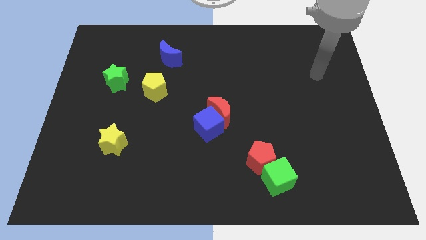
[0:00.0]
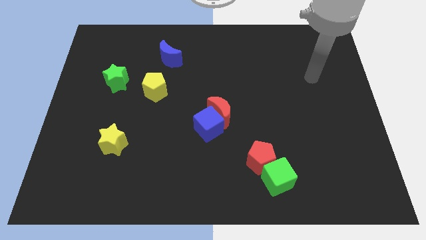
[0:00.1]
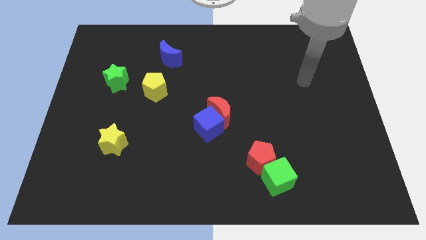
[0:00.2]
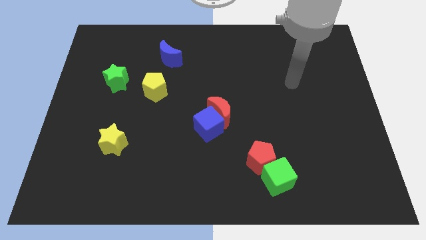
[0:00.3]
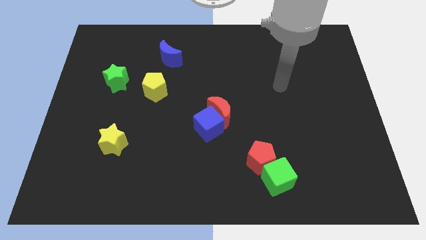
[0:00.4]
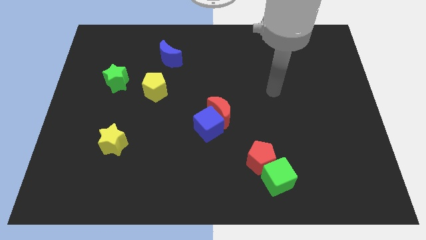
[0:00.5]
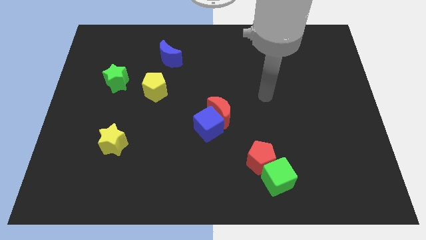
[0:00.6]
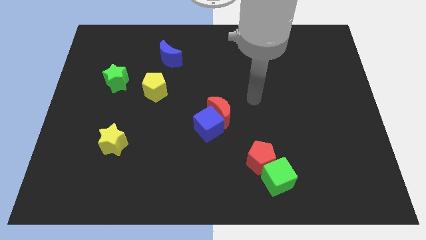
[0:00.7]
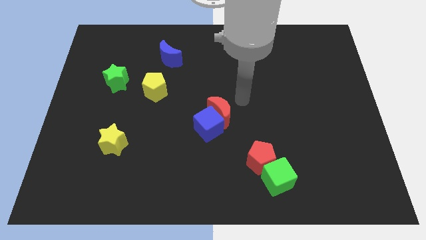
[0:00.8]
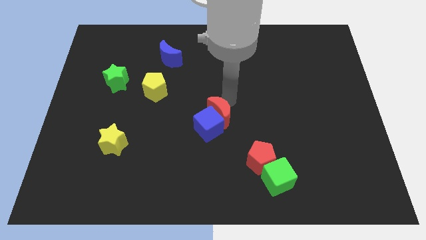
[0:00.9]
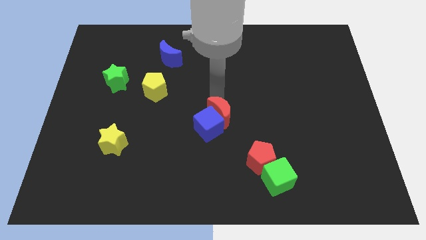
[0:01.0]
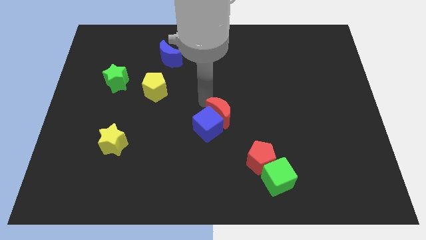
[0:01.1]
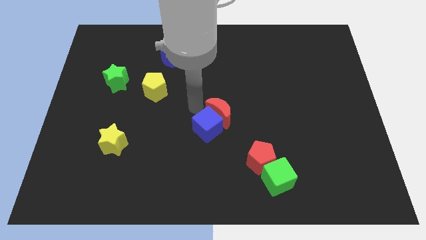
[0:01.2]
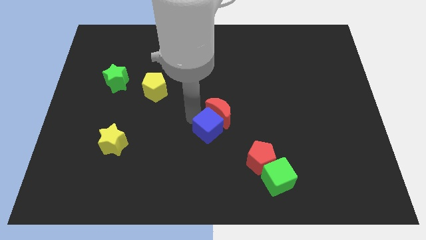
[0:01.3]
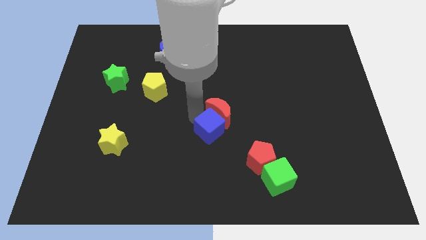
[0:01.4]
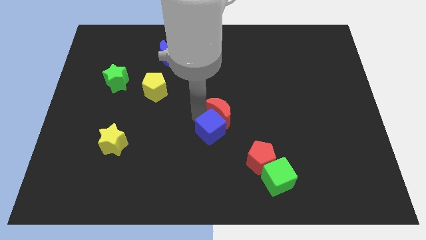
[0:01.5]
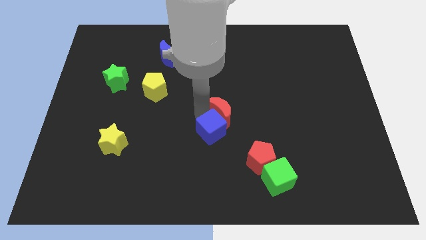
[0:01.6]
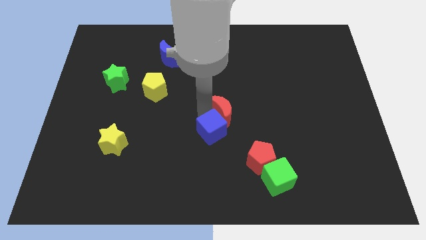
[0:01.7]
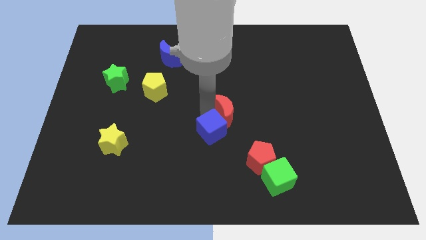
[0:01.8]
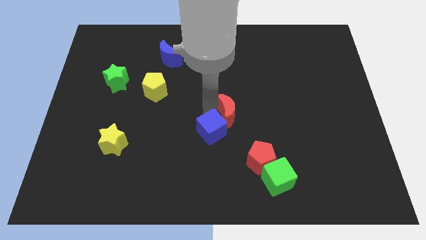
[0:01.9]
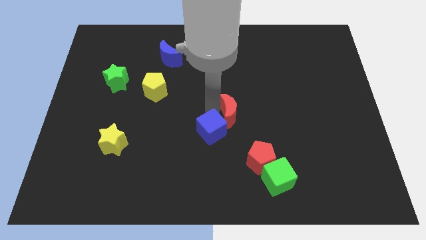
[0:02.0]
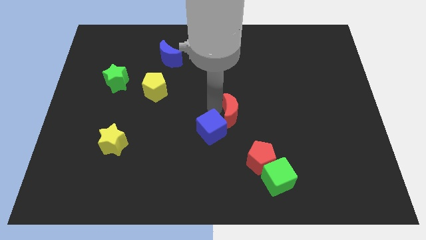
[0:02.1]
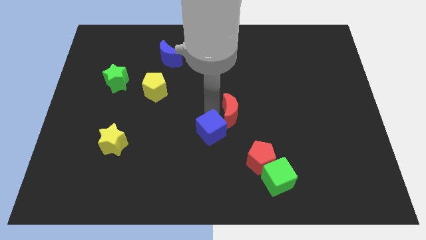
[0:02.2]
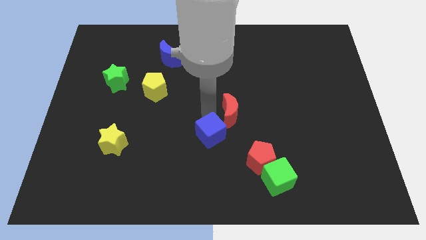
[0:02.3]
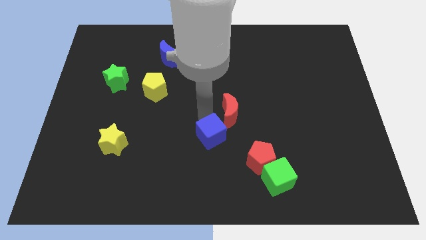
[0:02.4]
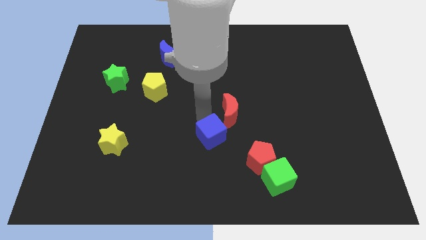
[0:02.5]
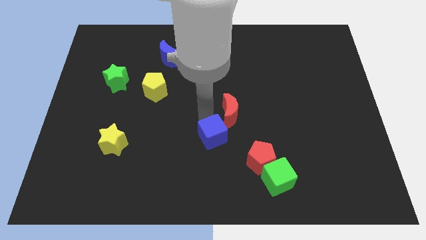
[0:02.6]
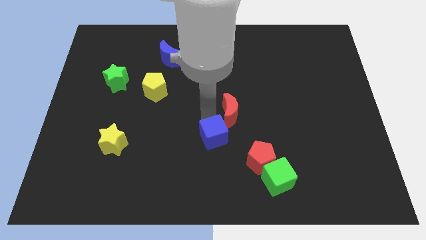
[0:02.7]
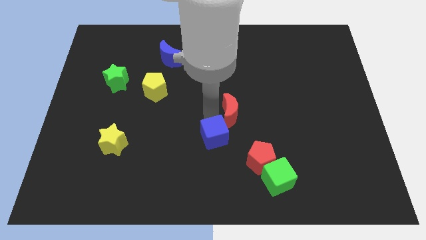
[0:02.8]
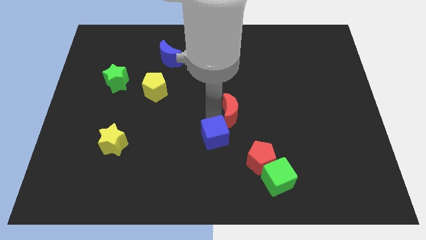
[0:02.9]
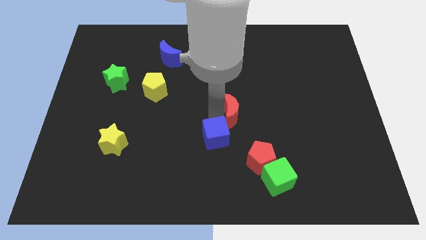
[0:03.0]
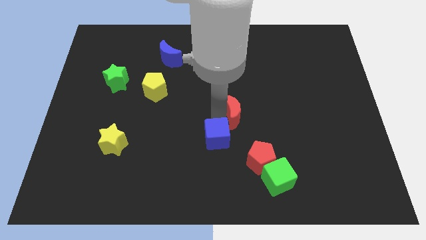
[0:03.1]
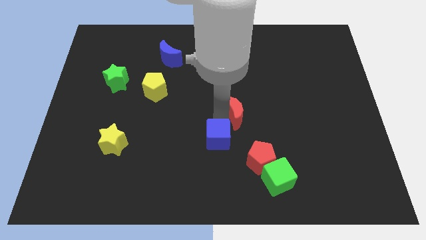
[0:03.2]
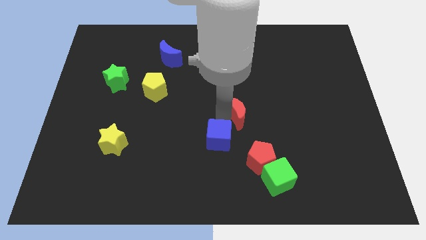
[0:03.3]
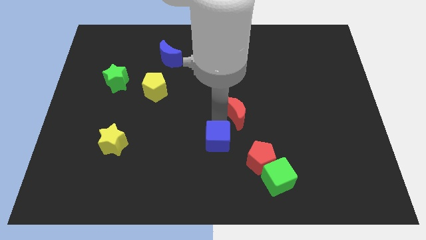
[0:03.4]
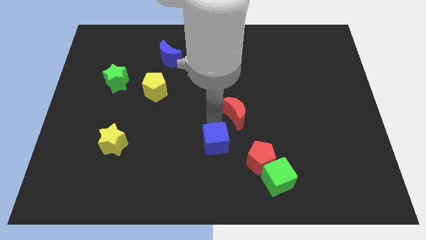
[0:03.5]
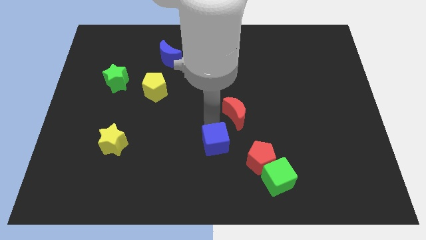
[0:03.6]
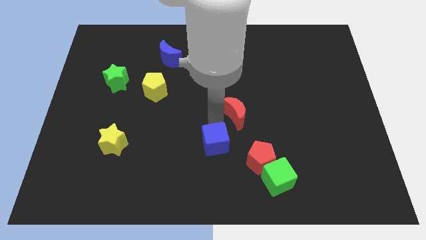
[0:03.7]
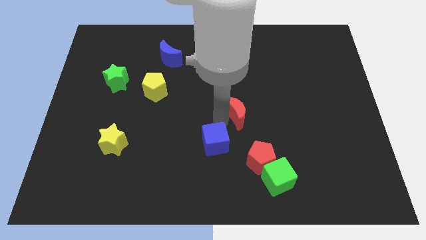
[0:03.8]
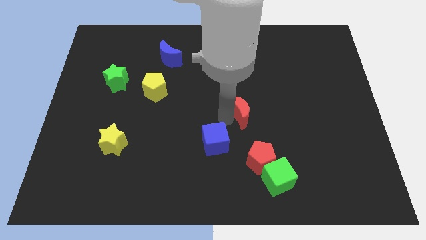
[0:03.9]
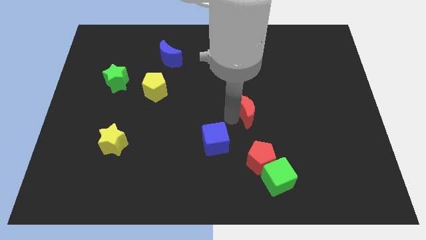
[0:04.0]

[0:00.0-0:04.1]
separate the red moon from the blue cube

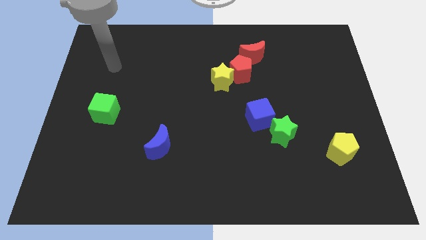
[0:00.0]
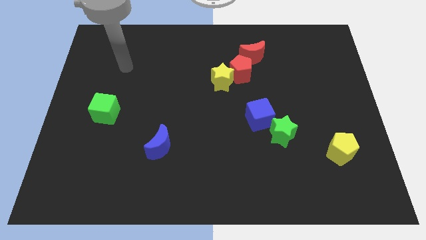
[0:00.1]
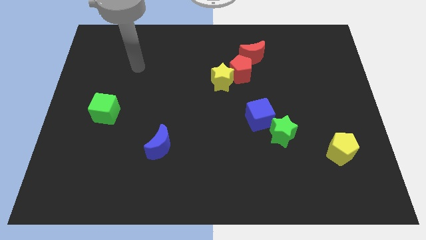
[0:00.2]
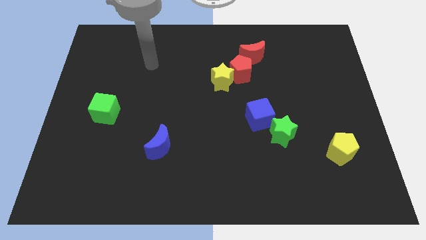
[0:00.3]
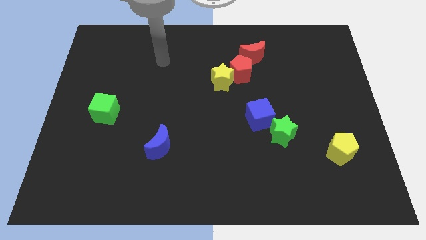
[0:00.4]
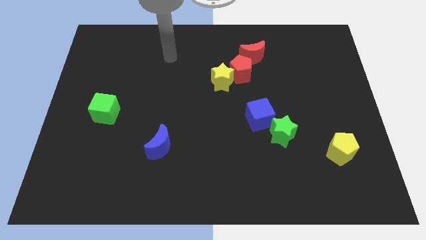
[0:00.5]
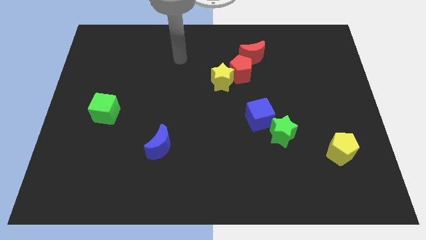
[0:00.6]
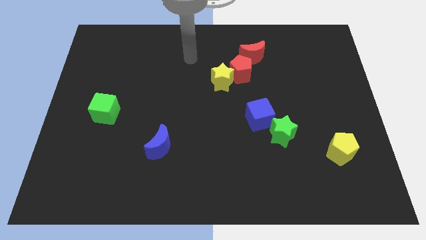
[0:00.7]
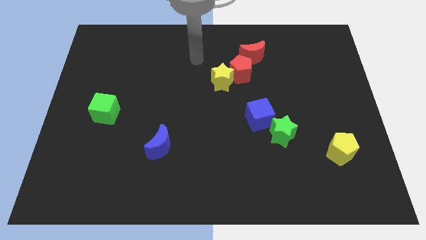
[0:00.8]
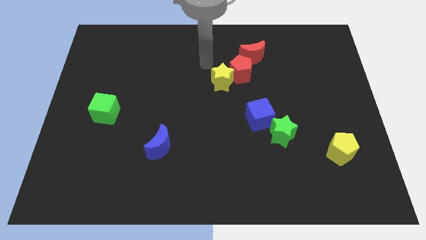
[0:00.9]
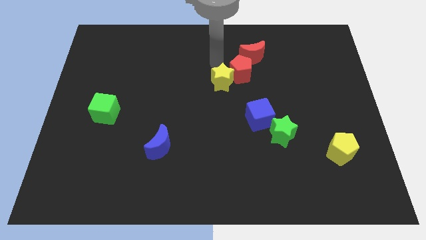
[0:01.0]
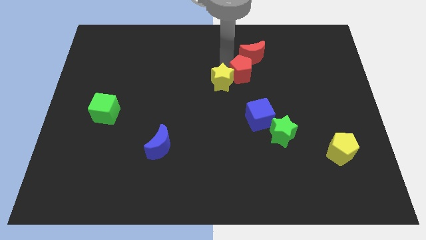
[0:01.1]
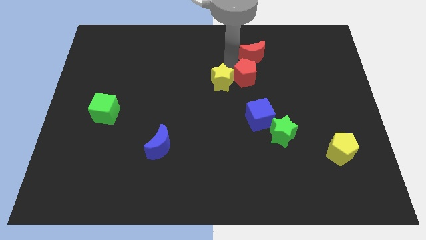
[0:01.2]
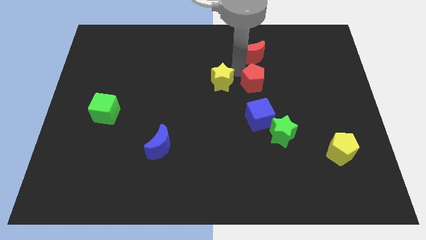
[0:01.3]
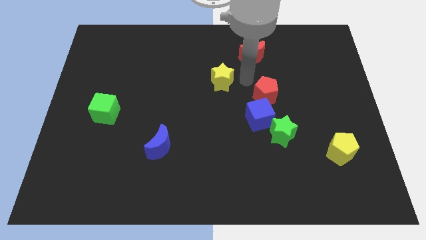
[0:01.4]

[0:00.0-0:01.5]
pull the yellow star apart from the red pentagon

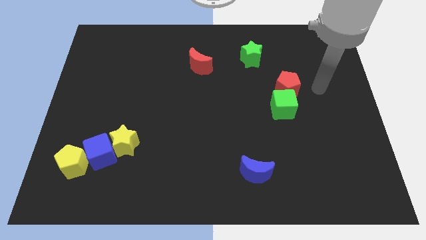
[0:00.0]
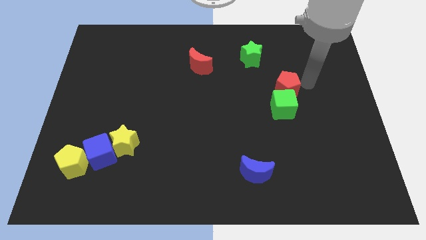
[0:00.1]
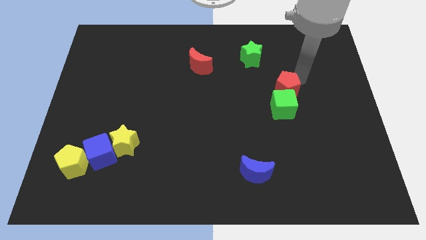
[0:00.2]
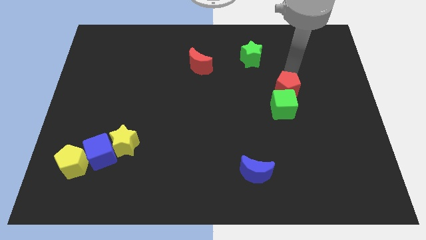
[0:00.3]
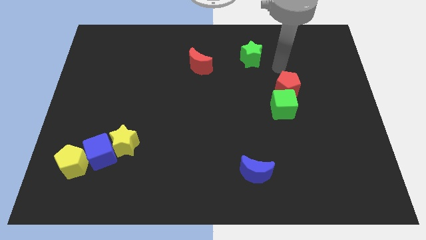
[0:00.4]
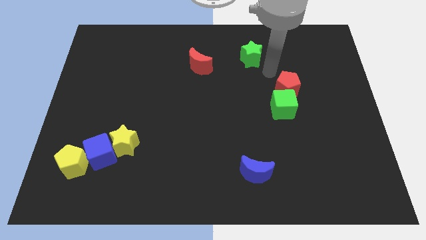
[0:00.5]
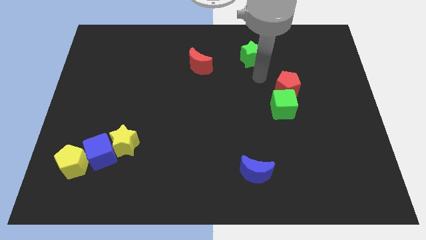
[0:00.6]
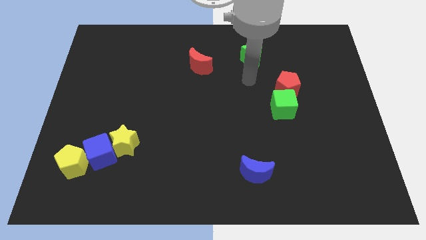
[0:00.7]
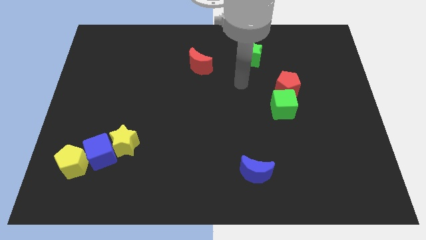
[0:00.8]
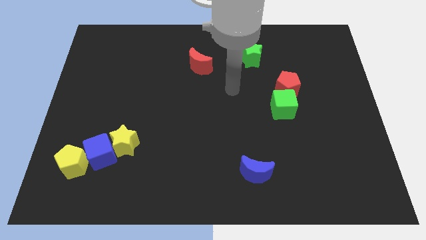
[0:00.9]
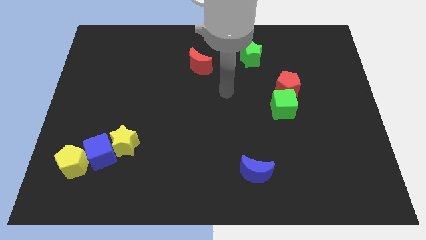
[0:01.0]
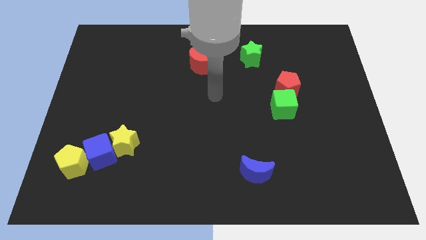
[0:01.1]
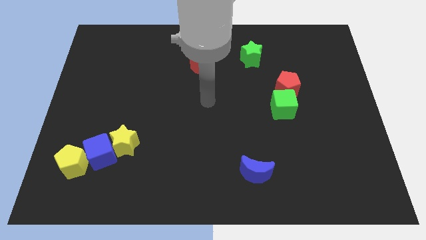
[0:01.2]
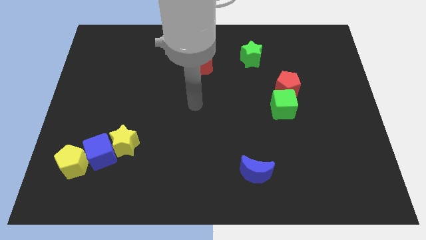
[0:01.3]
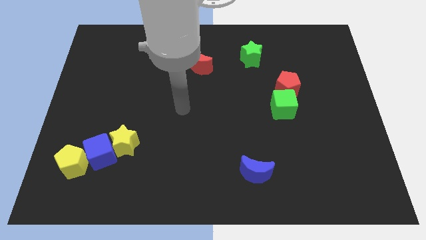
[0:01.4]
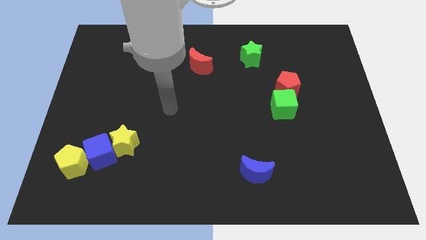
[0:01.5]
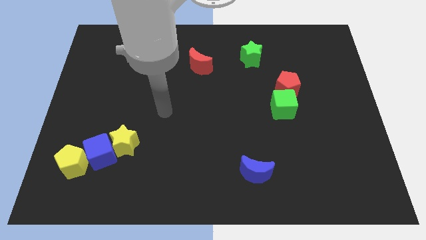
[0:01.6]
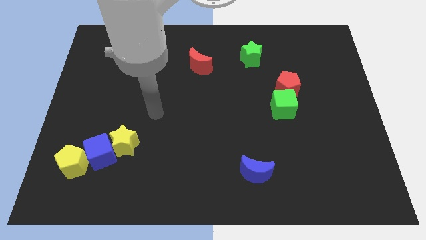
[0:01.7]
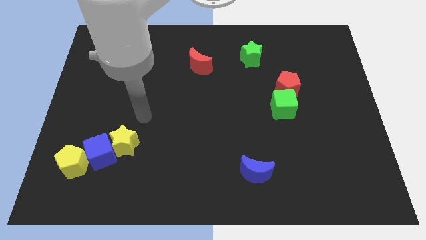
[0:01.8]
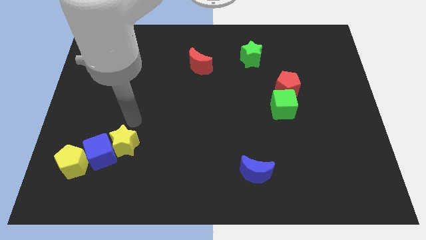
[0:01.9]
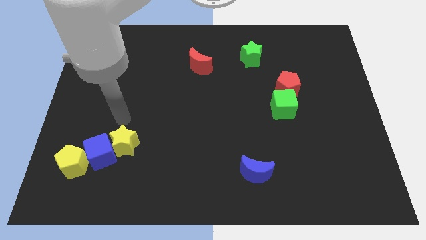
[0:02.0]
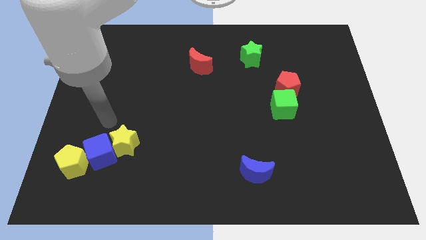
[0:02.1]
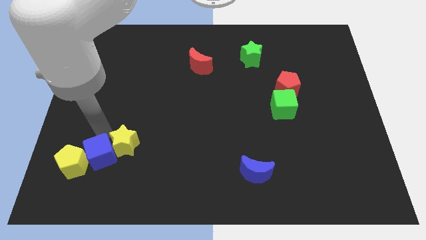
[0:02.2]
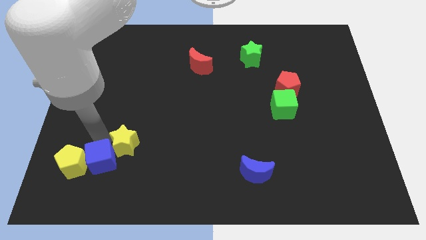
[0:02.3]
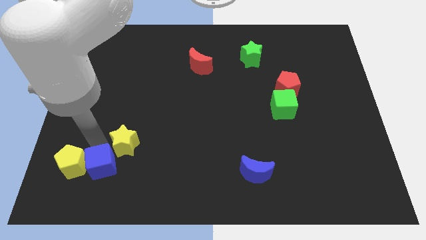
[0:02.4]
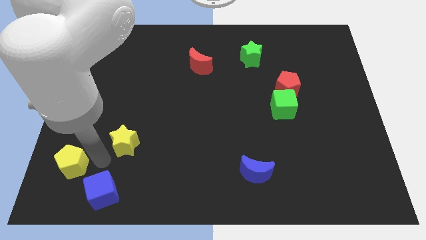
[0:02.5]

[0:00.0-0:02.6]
separate the yellow star from the blue cube

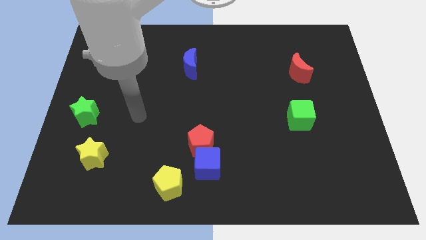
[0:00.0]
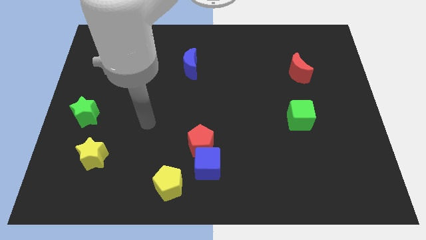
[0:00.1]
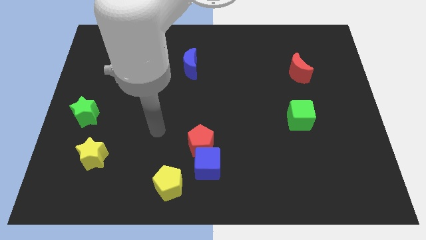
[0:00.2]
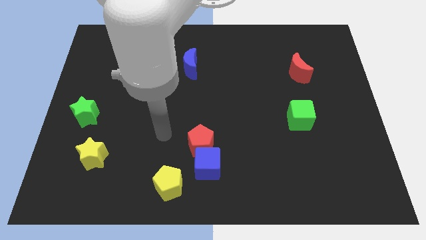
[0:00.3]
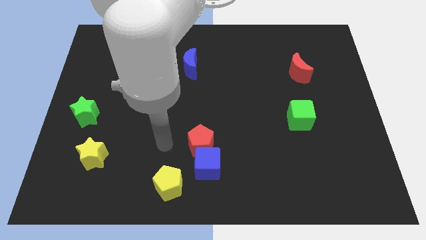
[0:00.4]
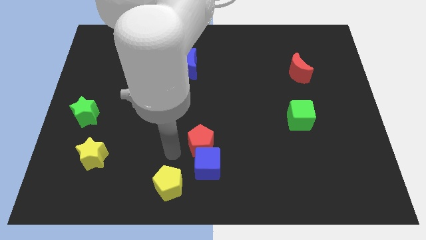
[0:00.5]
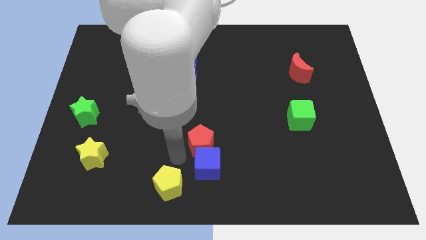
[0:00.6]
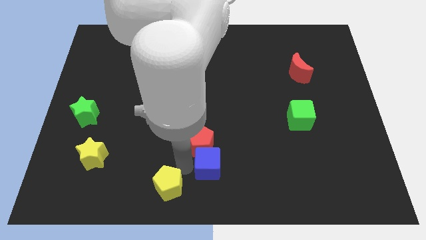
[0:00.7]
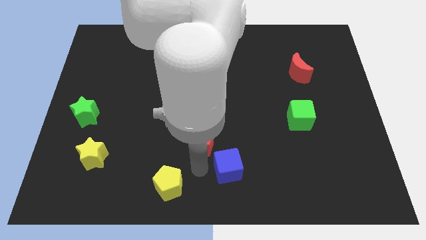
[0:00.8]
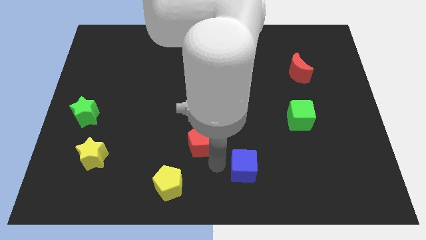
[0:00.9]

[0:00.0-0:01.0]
separate the red pentagon from the blue cube

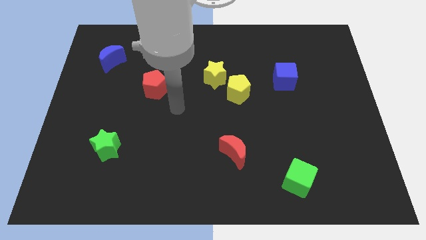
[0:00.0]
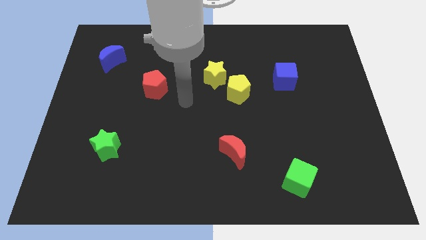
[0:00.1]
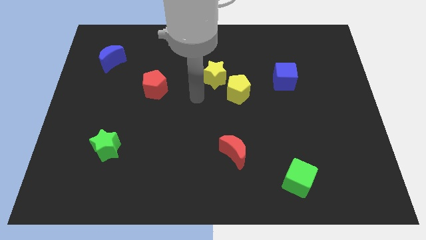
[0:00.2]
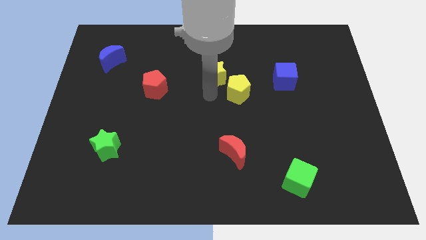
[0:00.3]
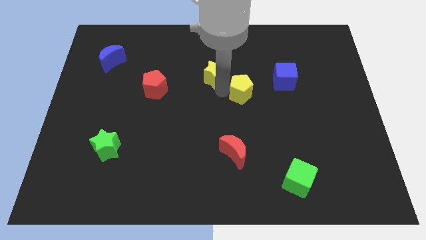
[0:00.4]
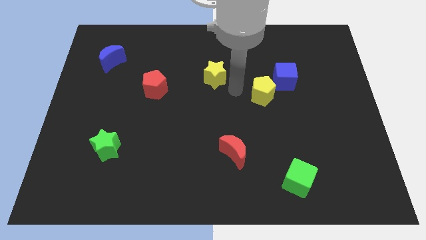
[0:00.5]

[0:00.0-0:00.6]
move the yellow star away from the yellow pentagon
